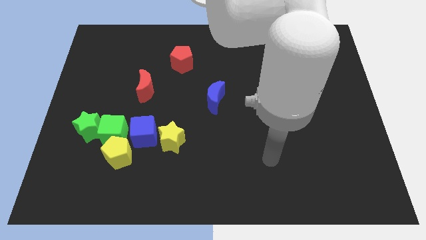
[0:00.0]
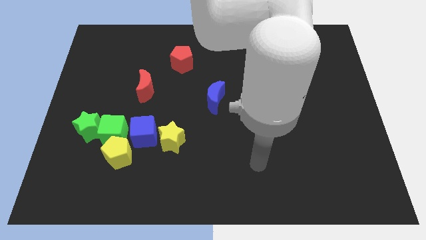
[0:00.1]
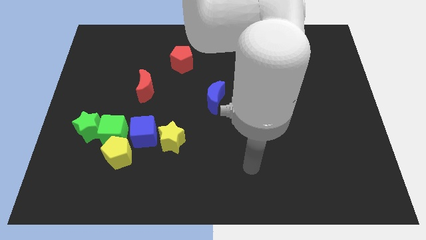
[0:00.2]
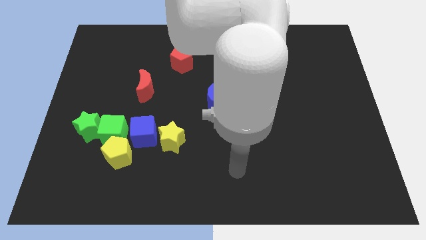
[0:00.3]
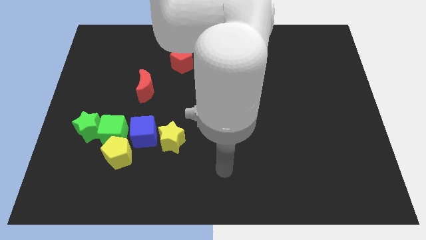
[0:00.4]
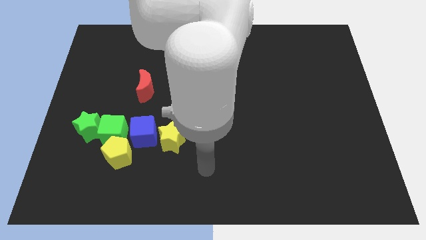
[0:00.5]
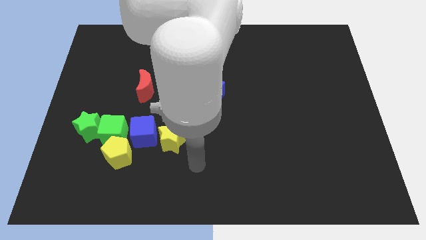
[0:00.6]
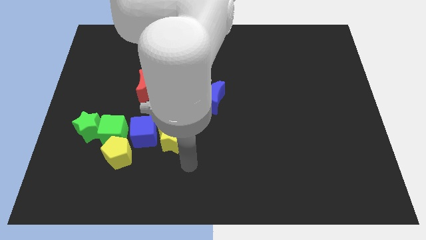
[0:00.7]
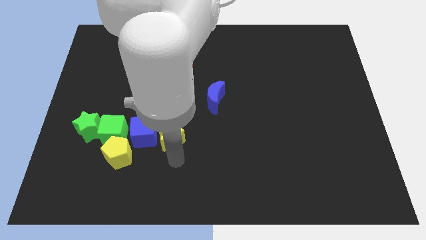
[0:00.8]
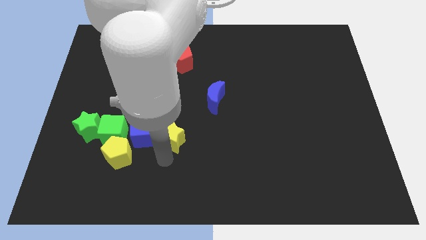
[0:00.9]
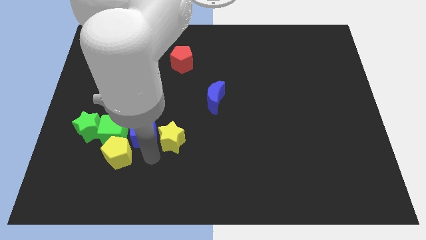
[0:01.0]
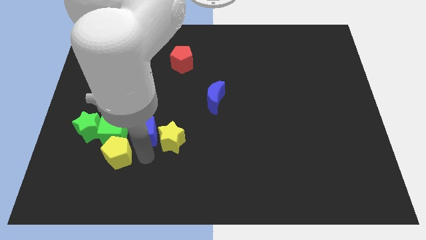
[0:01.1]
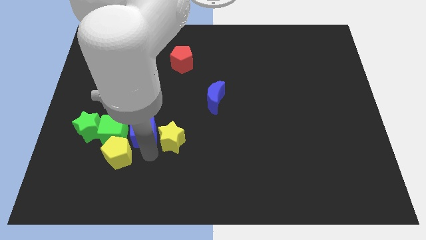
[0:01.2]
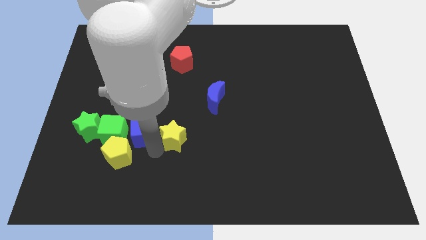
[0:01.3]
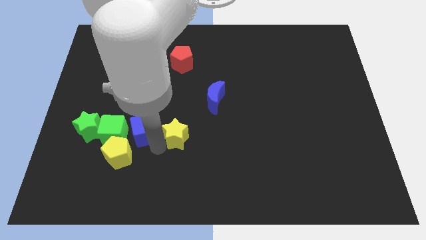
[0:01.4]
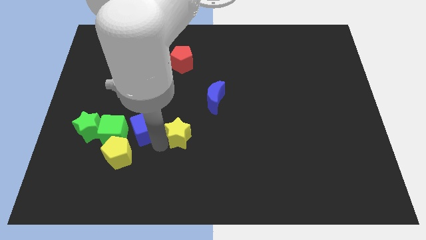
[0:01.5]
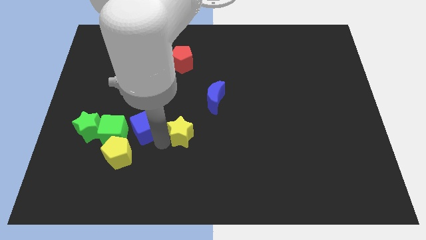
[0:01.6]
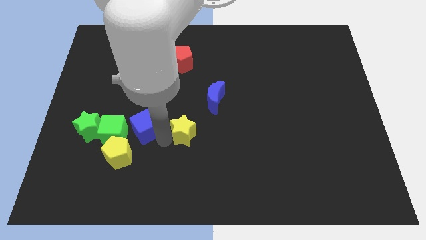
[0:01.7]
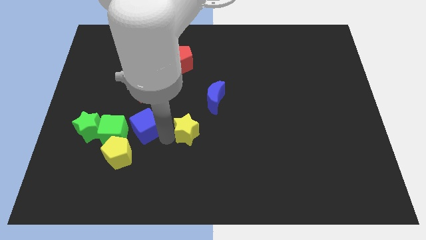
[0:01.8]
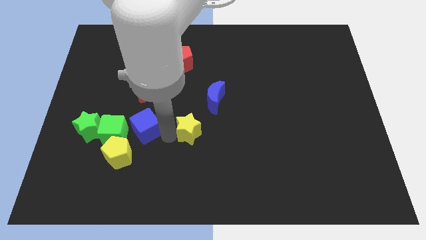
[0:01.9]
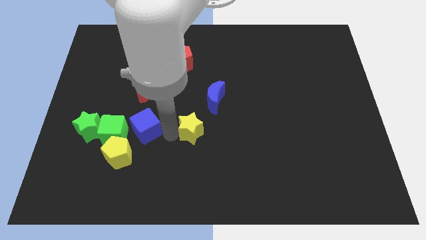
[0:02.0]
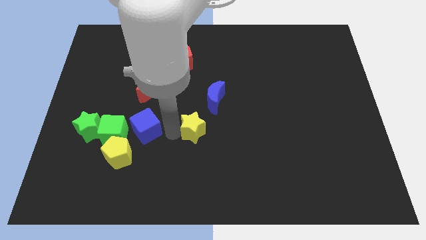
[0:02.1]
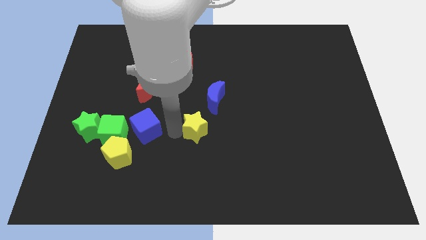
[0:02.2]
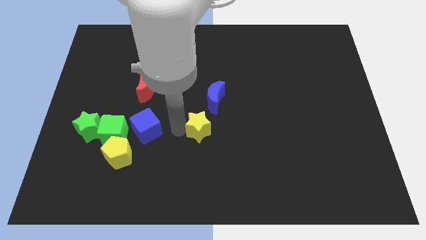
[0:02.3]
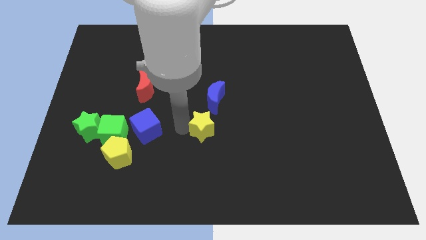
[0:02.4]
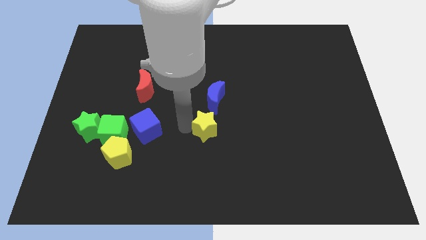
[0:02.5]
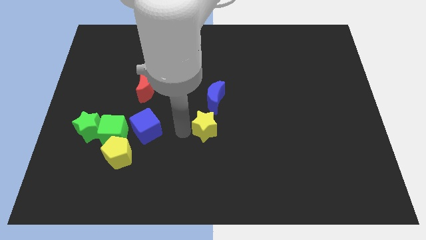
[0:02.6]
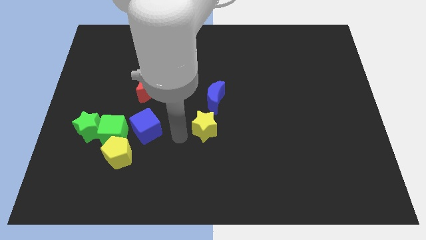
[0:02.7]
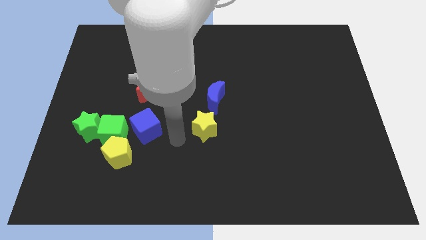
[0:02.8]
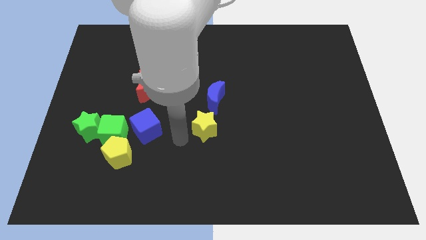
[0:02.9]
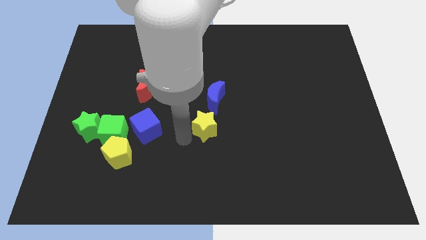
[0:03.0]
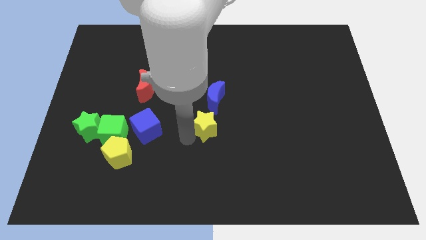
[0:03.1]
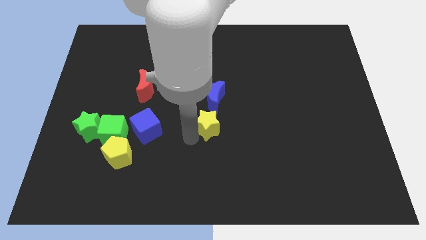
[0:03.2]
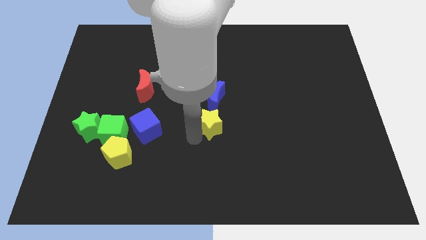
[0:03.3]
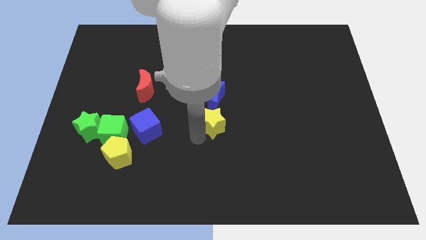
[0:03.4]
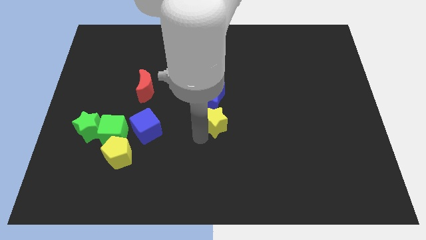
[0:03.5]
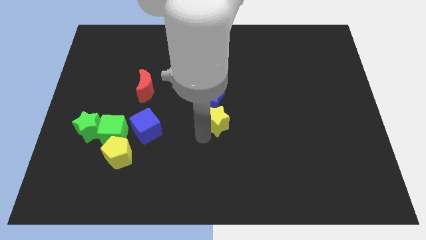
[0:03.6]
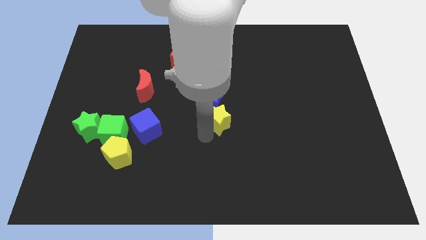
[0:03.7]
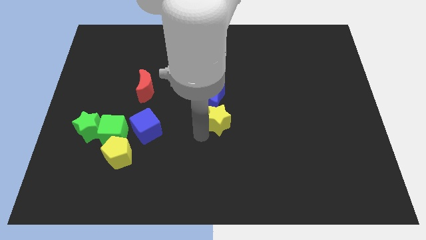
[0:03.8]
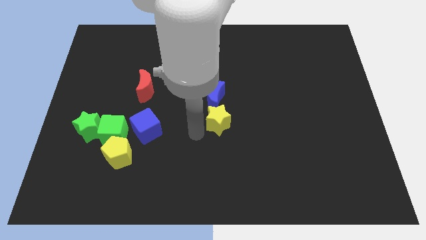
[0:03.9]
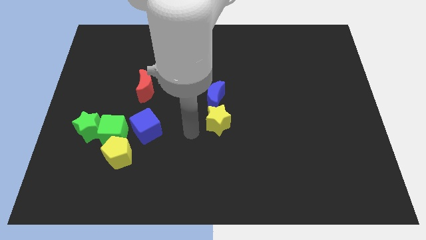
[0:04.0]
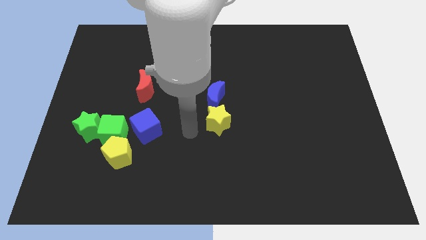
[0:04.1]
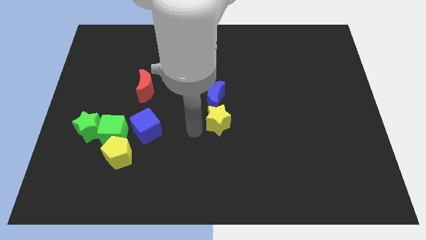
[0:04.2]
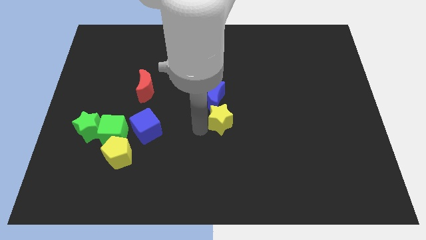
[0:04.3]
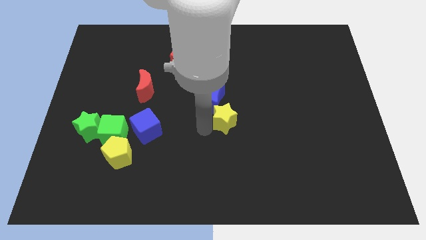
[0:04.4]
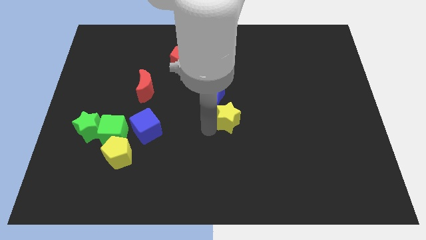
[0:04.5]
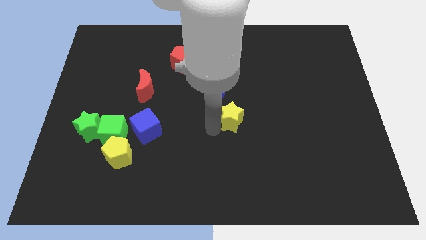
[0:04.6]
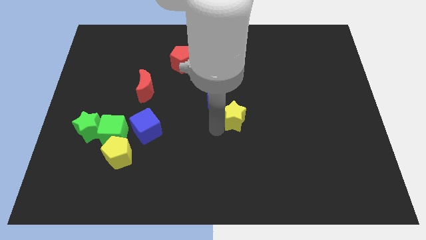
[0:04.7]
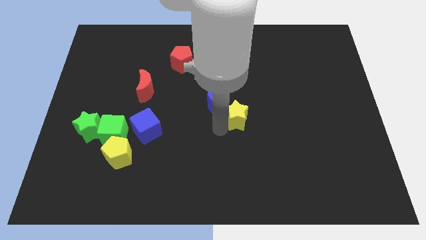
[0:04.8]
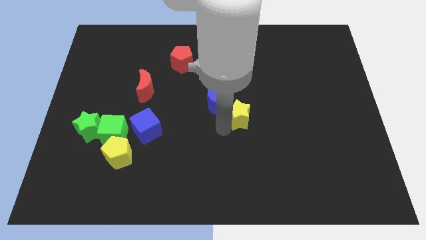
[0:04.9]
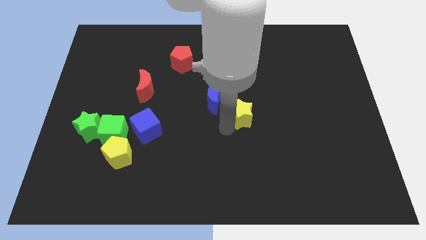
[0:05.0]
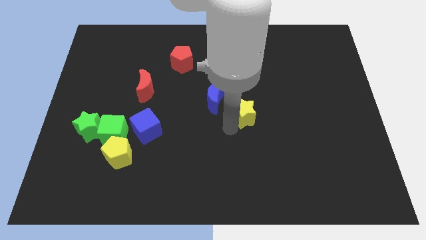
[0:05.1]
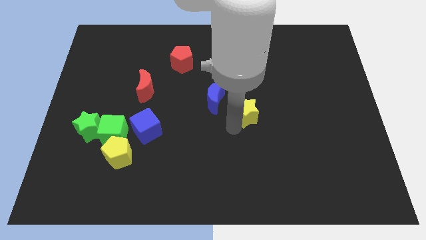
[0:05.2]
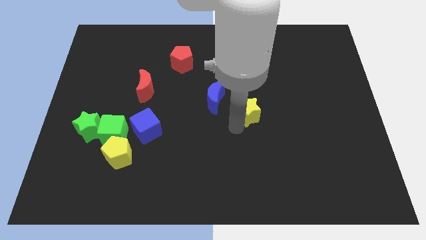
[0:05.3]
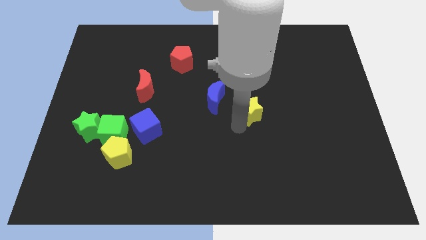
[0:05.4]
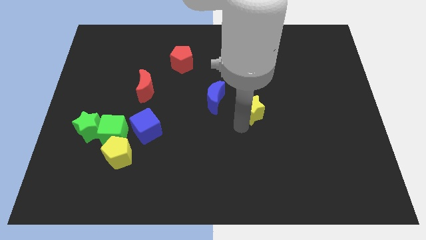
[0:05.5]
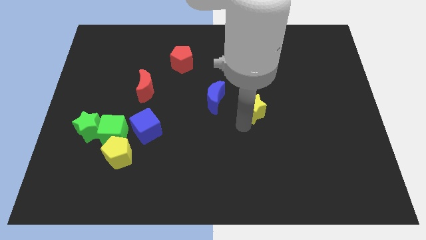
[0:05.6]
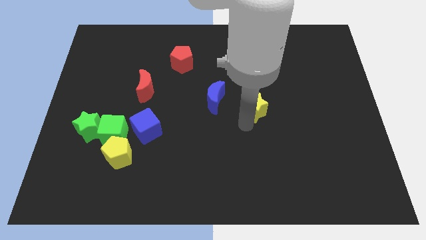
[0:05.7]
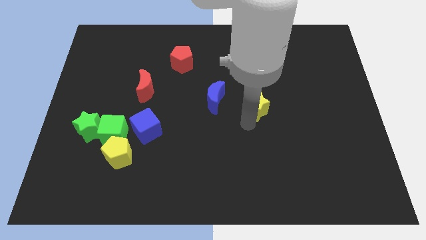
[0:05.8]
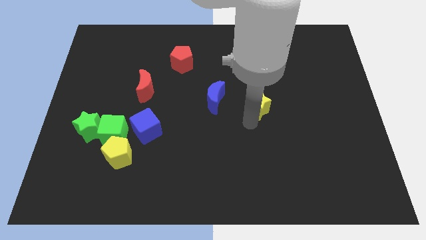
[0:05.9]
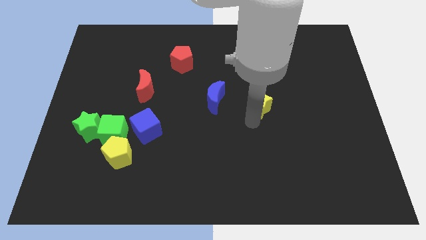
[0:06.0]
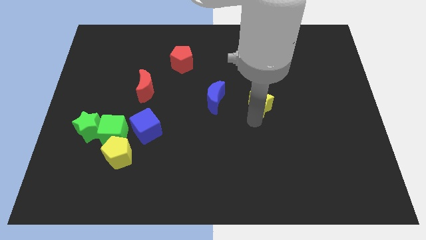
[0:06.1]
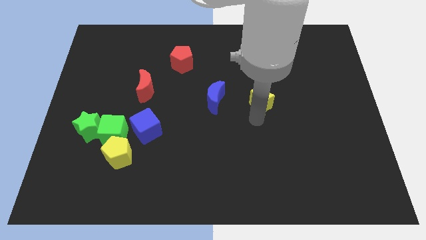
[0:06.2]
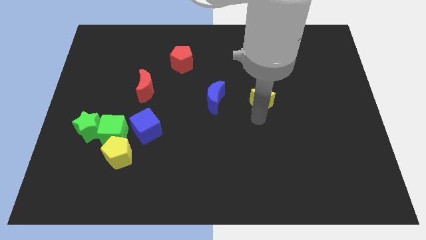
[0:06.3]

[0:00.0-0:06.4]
push the yellow star up and to the right diagonally

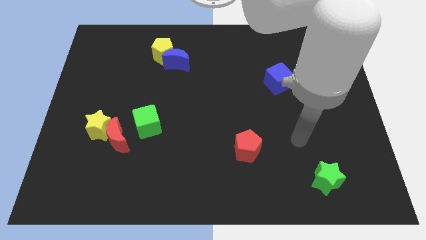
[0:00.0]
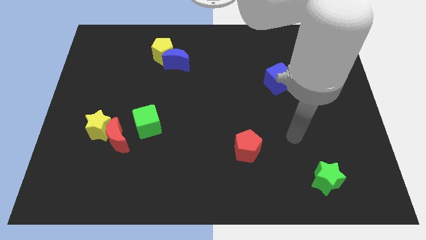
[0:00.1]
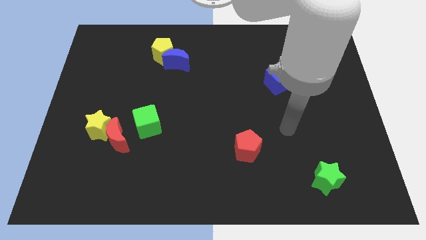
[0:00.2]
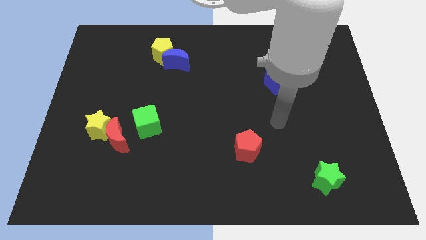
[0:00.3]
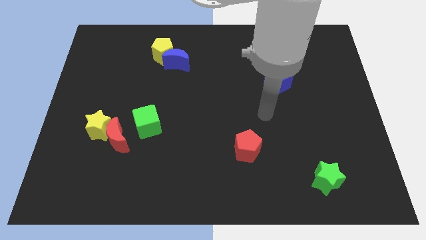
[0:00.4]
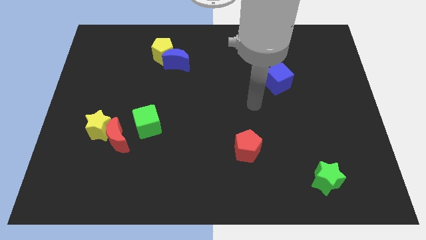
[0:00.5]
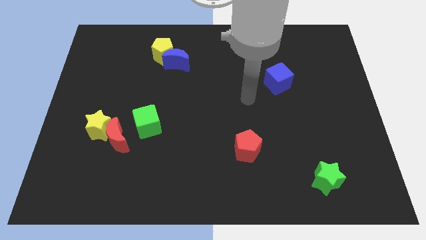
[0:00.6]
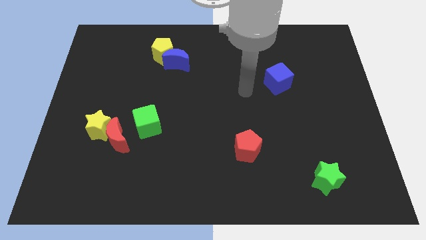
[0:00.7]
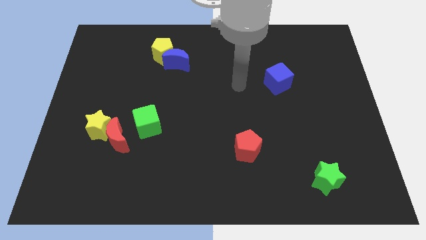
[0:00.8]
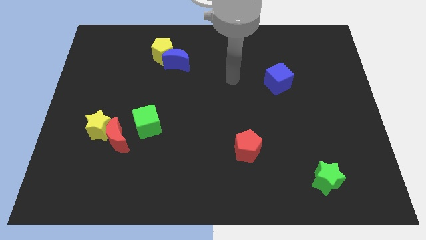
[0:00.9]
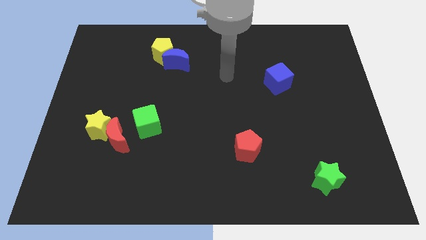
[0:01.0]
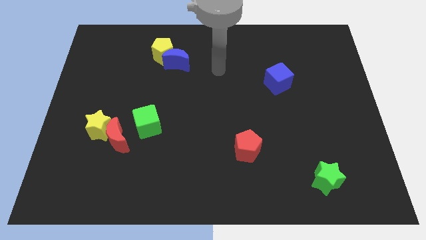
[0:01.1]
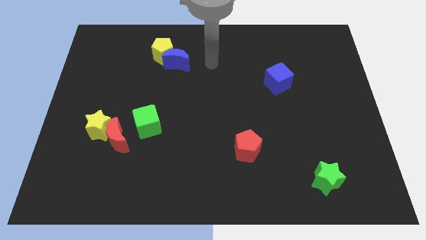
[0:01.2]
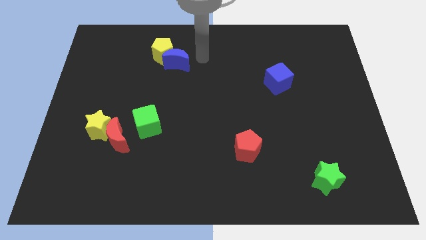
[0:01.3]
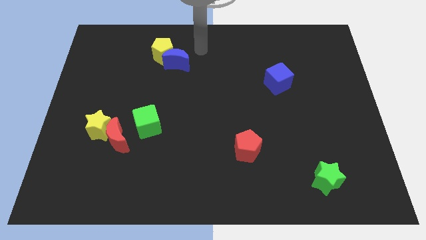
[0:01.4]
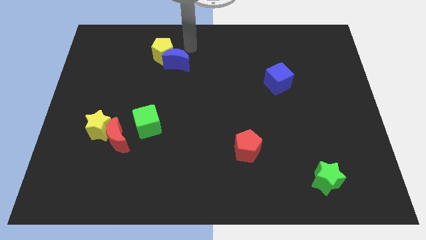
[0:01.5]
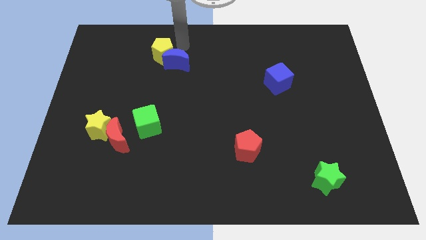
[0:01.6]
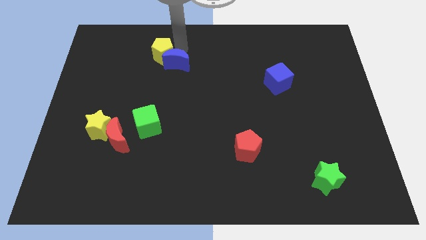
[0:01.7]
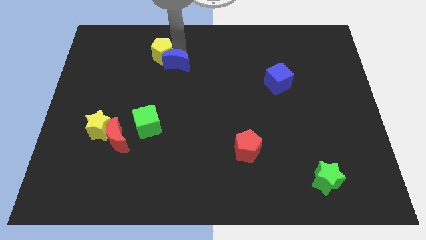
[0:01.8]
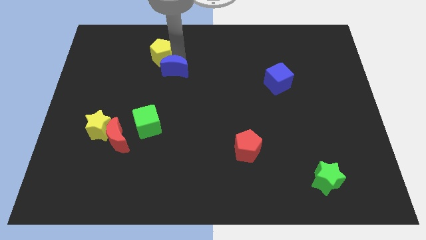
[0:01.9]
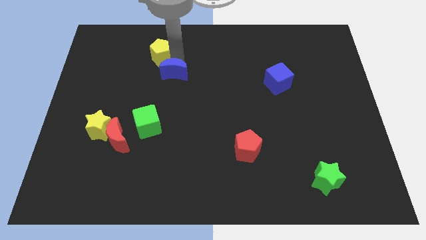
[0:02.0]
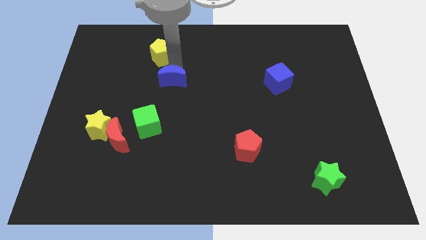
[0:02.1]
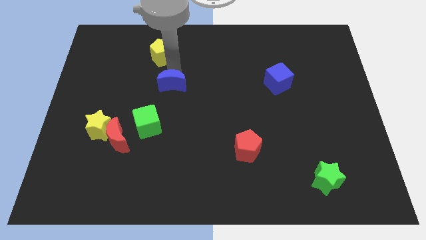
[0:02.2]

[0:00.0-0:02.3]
slightly slide the blue moon down
